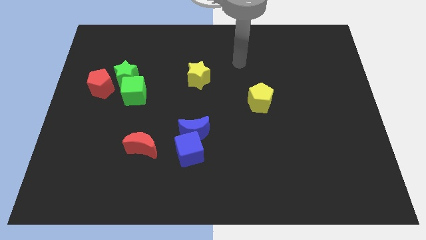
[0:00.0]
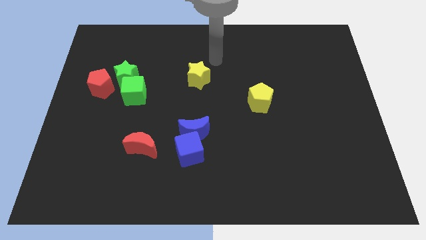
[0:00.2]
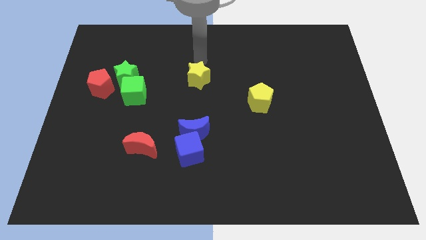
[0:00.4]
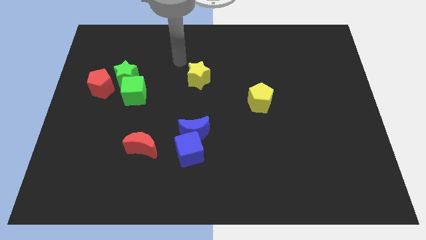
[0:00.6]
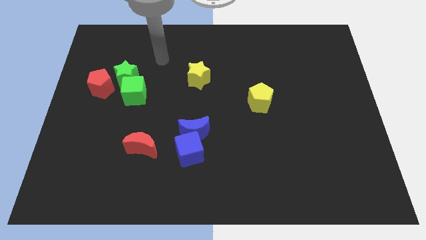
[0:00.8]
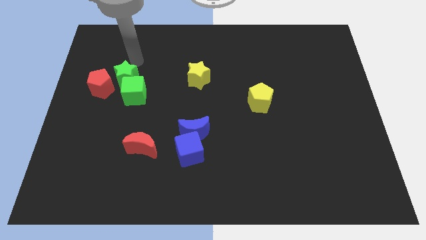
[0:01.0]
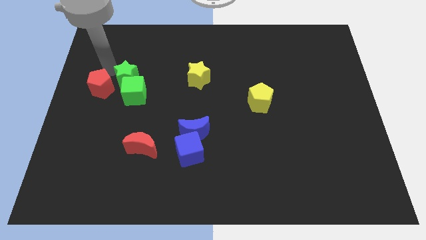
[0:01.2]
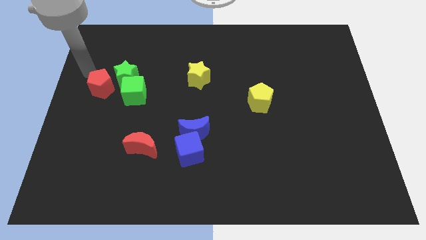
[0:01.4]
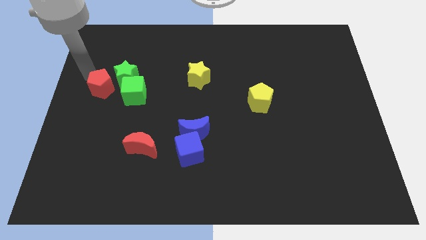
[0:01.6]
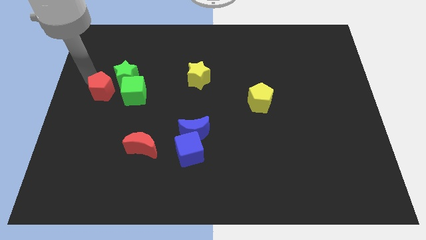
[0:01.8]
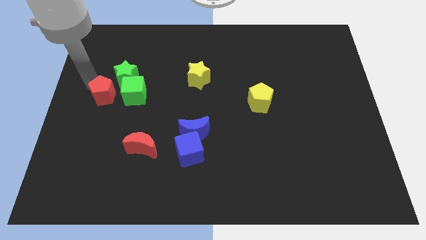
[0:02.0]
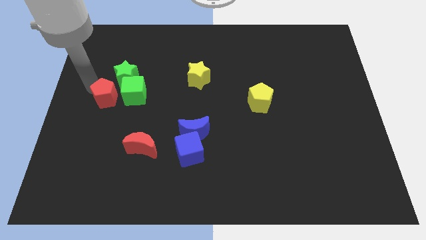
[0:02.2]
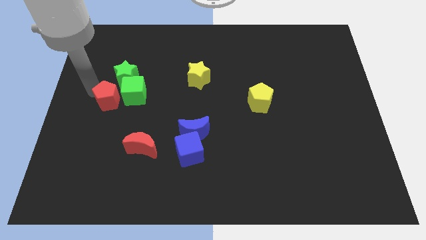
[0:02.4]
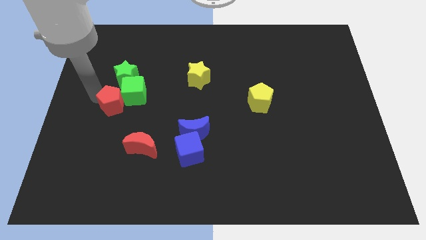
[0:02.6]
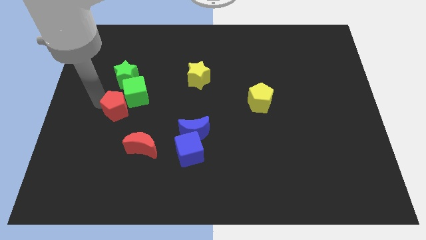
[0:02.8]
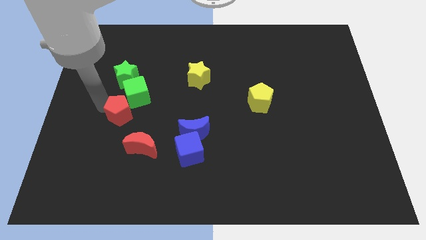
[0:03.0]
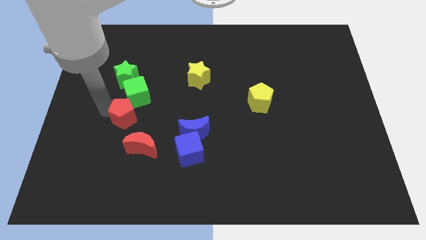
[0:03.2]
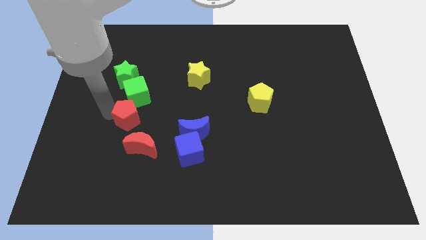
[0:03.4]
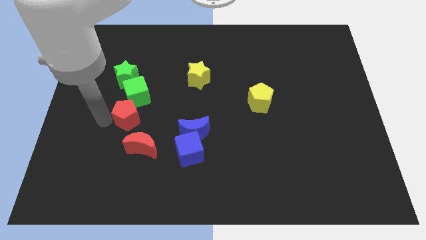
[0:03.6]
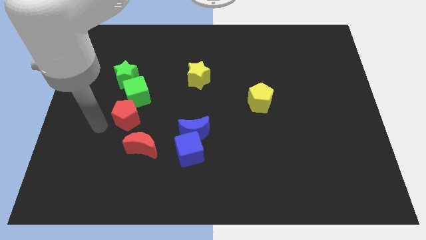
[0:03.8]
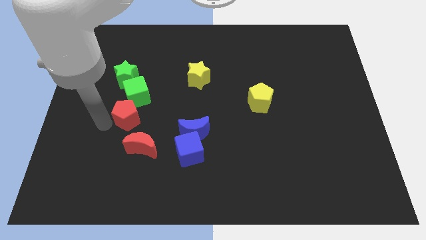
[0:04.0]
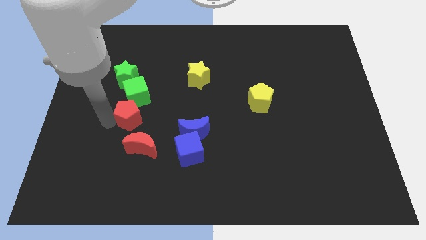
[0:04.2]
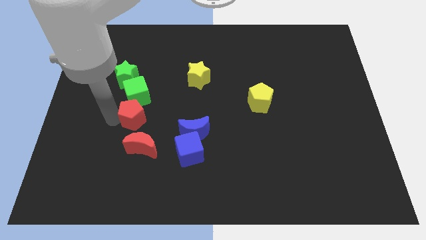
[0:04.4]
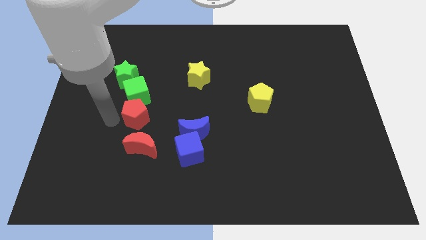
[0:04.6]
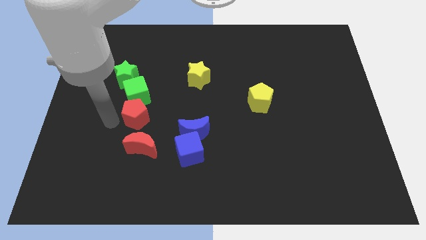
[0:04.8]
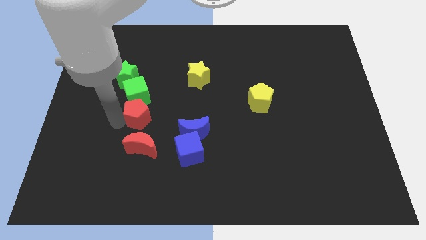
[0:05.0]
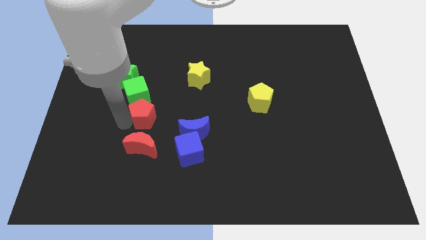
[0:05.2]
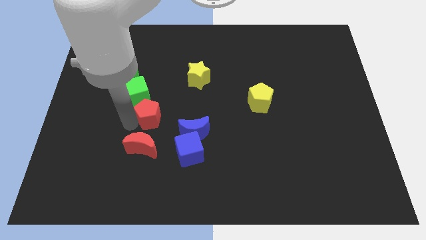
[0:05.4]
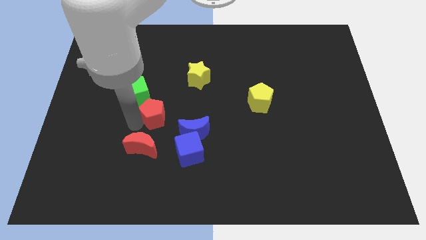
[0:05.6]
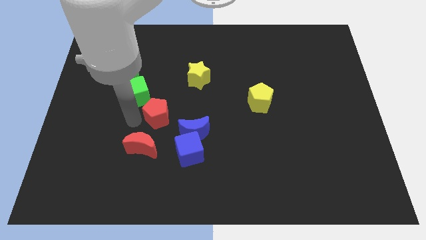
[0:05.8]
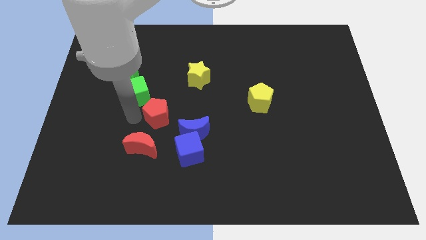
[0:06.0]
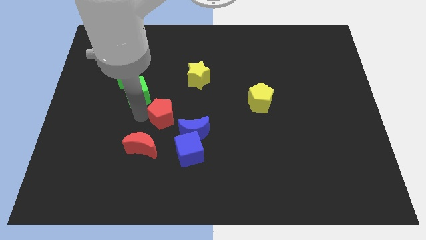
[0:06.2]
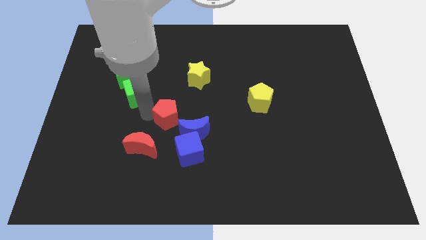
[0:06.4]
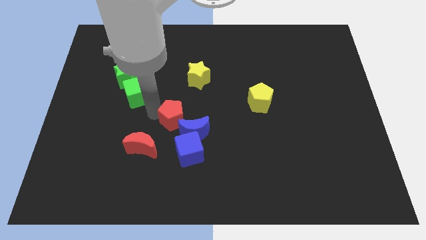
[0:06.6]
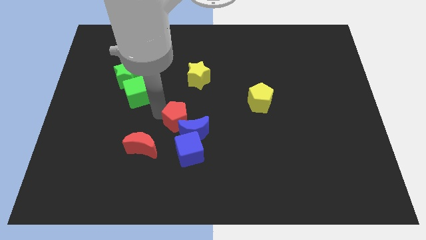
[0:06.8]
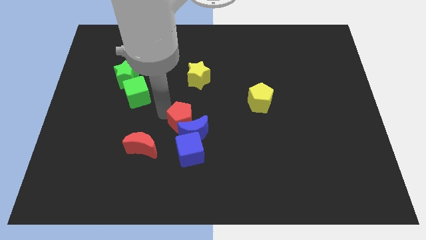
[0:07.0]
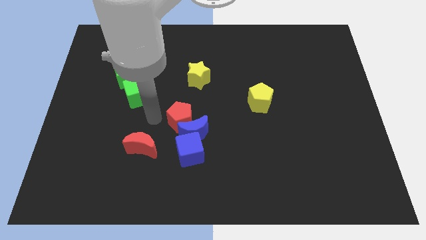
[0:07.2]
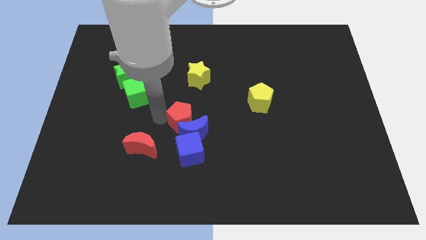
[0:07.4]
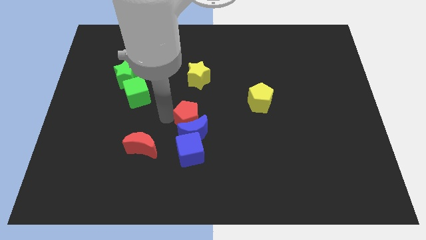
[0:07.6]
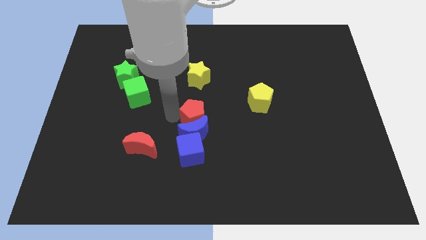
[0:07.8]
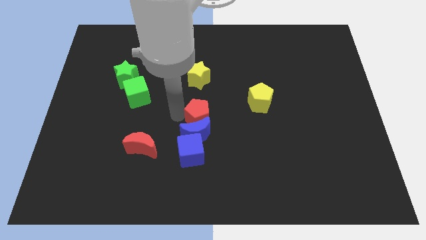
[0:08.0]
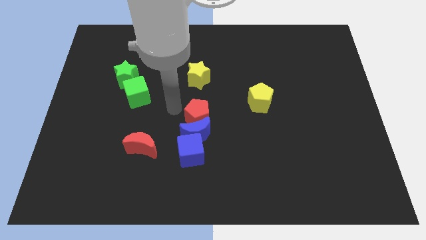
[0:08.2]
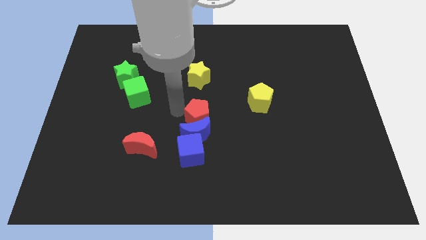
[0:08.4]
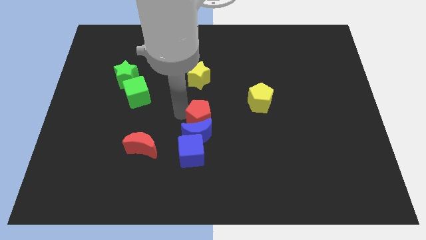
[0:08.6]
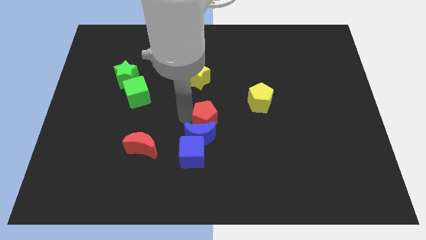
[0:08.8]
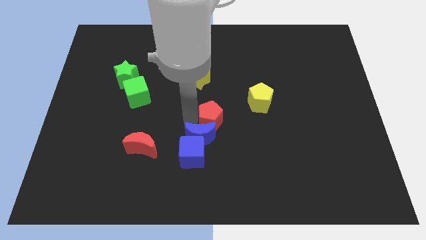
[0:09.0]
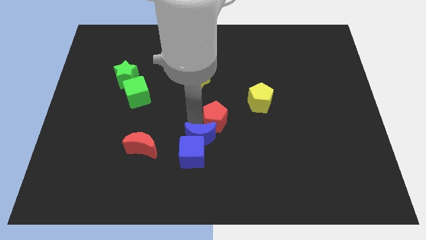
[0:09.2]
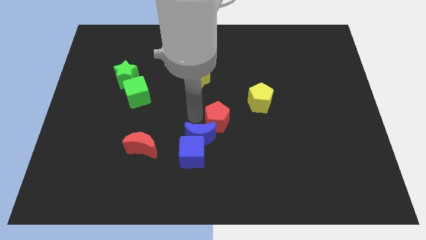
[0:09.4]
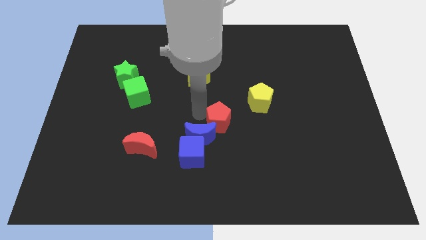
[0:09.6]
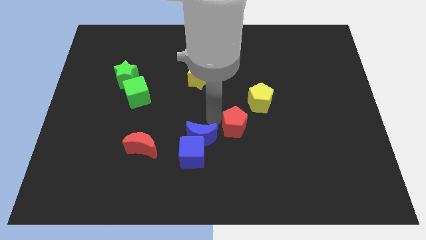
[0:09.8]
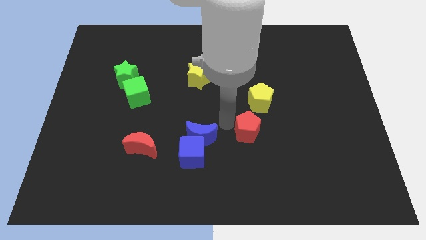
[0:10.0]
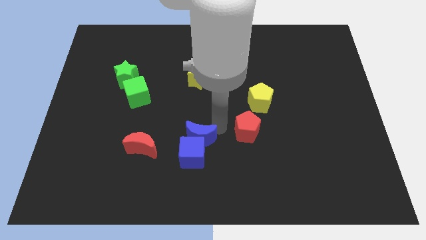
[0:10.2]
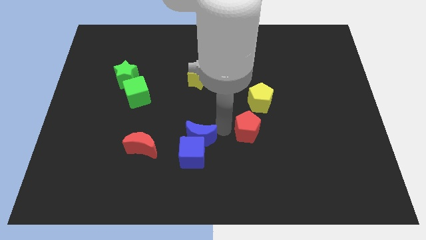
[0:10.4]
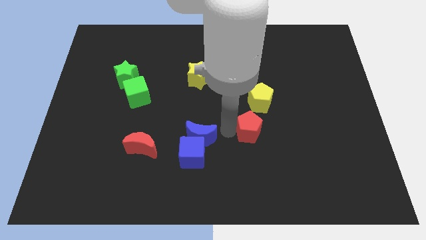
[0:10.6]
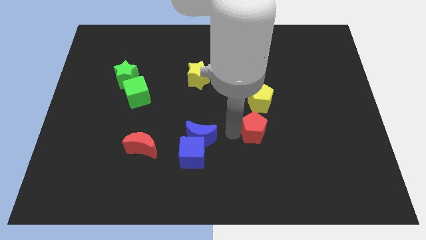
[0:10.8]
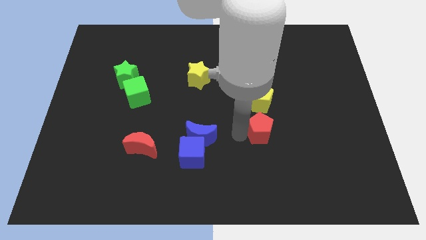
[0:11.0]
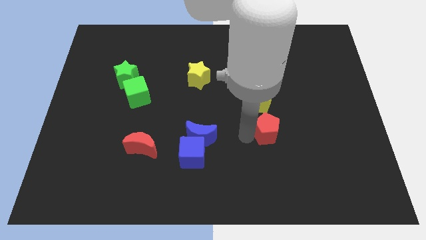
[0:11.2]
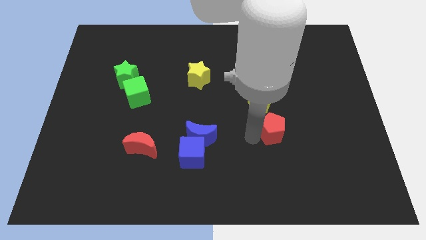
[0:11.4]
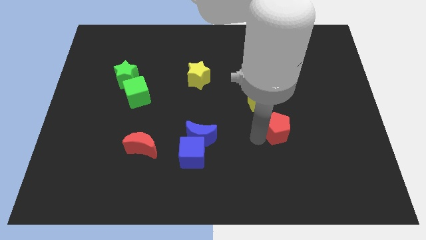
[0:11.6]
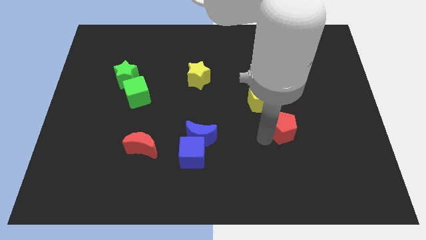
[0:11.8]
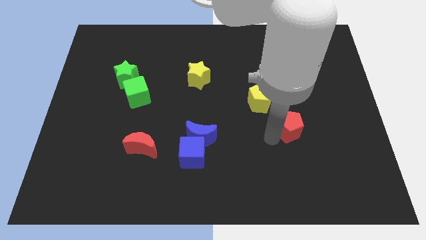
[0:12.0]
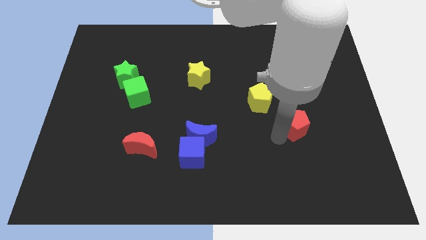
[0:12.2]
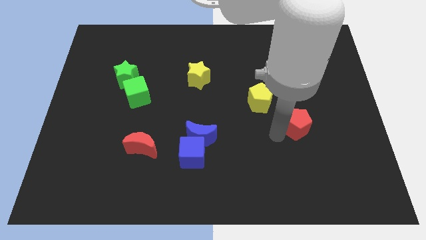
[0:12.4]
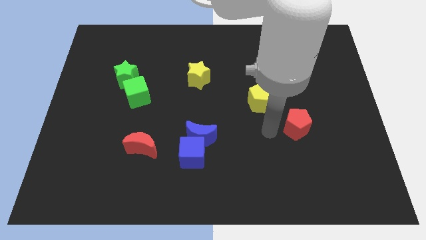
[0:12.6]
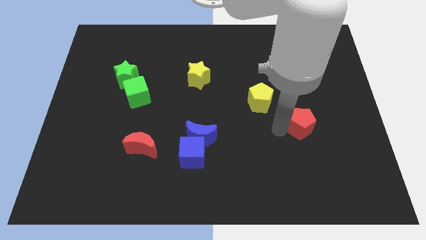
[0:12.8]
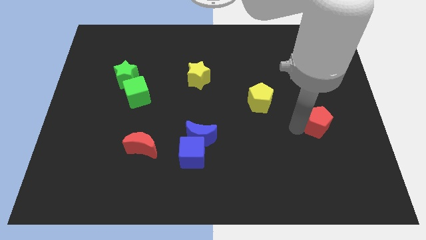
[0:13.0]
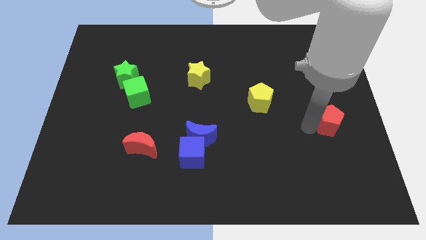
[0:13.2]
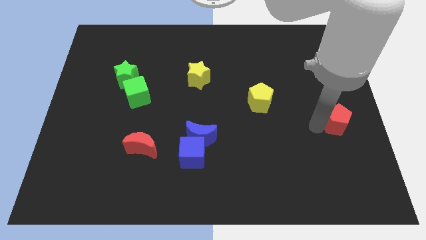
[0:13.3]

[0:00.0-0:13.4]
move the red pentagon to the right side of the board

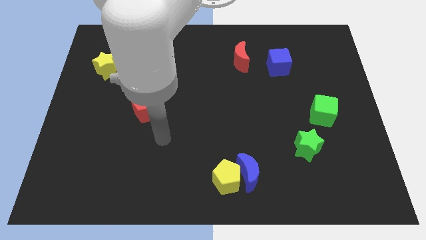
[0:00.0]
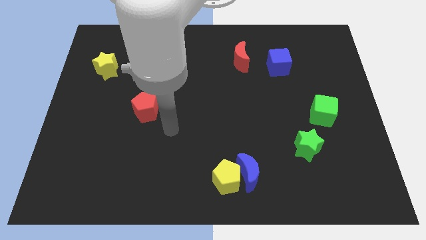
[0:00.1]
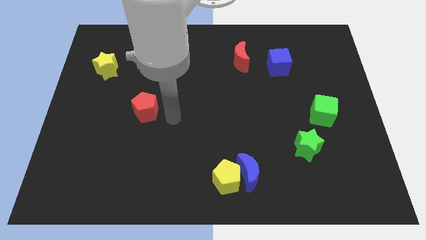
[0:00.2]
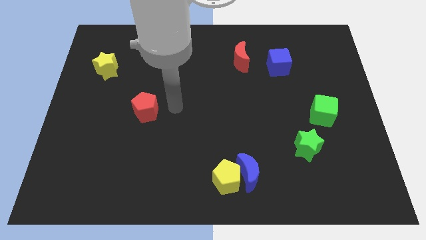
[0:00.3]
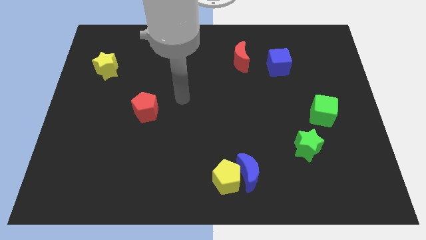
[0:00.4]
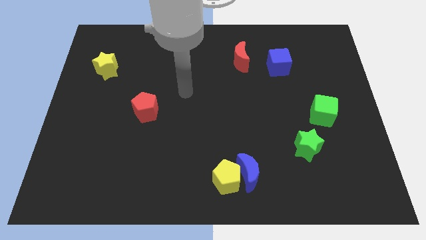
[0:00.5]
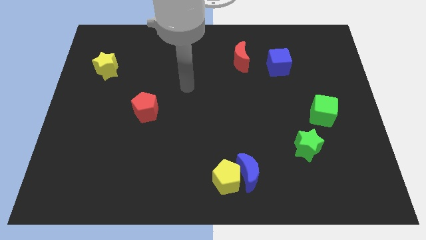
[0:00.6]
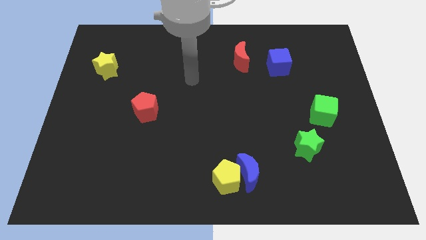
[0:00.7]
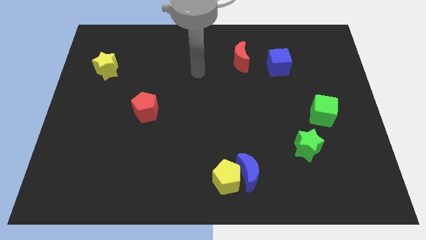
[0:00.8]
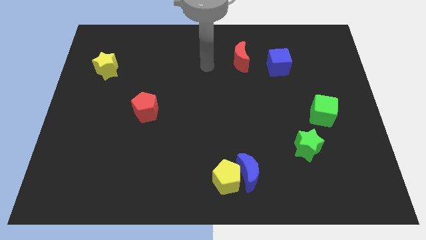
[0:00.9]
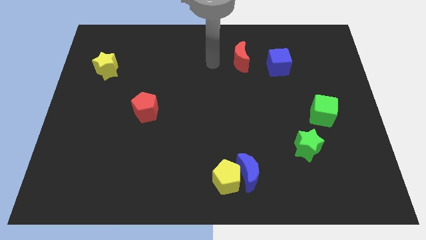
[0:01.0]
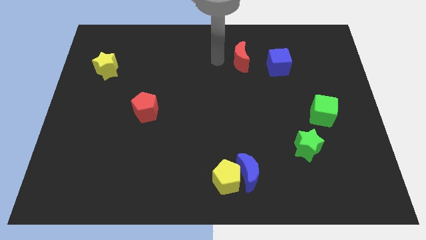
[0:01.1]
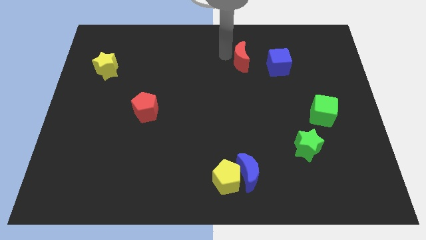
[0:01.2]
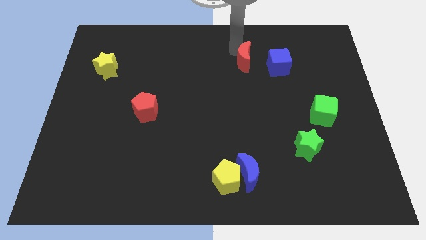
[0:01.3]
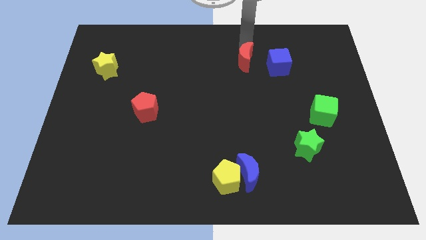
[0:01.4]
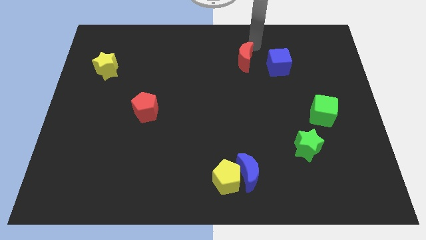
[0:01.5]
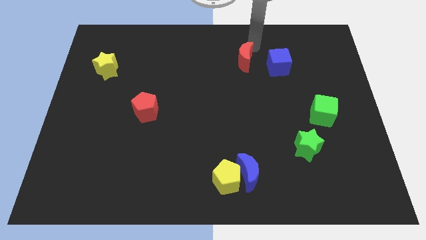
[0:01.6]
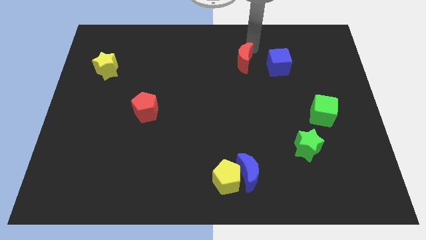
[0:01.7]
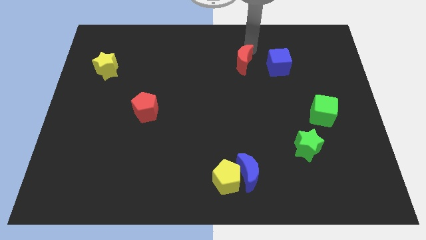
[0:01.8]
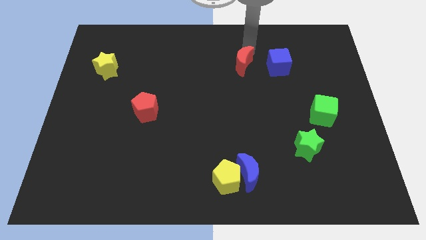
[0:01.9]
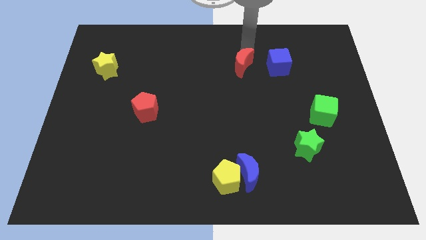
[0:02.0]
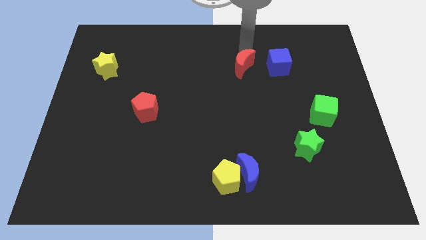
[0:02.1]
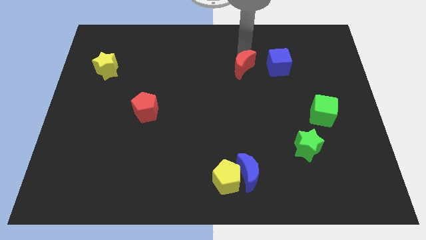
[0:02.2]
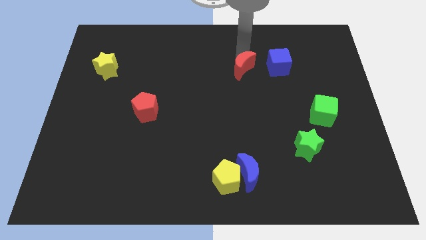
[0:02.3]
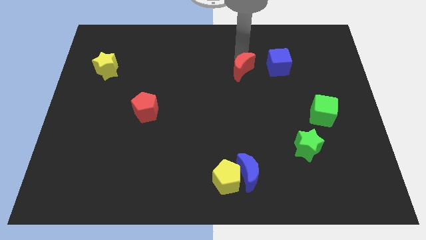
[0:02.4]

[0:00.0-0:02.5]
move the red moon to the middle of the board
